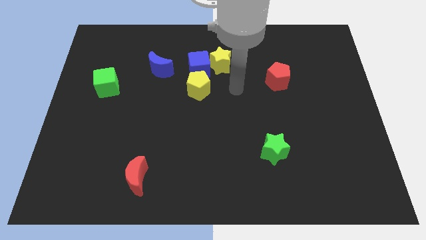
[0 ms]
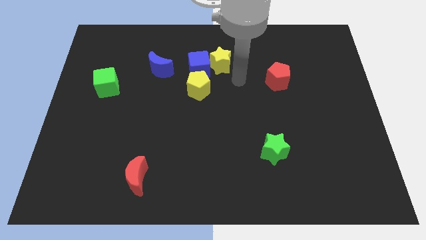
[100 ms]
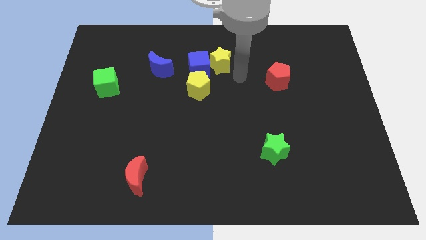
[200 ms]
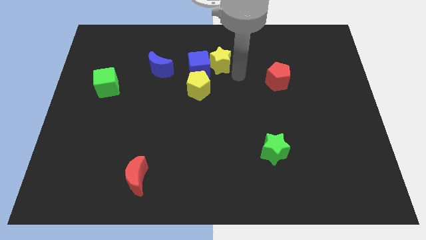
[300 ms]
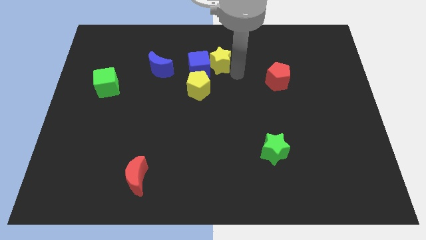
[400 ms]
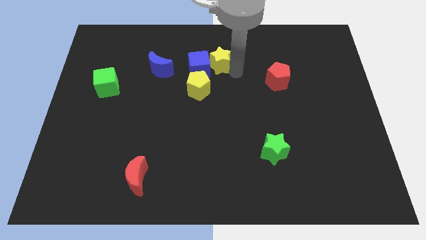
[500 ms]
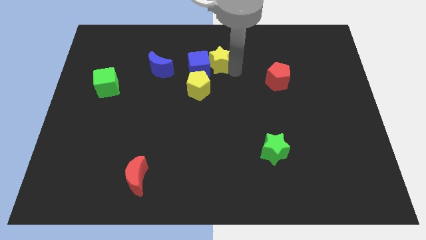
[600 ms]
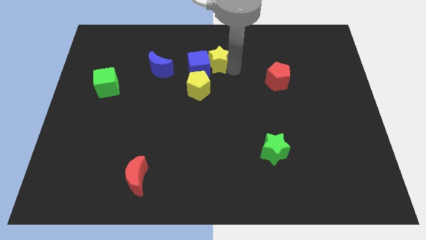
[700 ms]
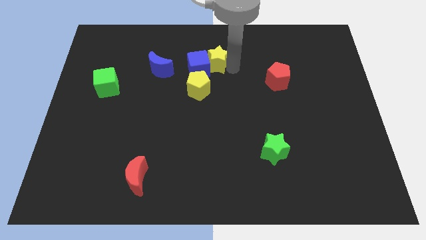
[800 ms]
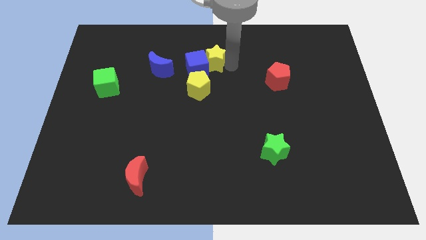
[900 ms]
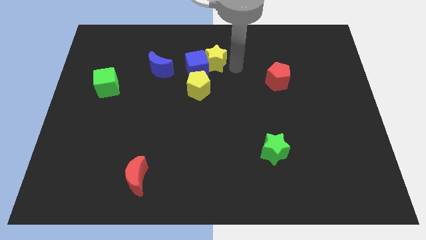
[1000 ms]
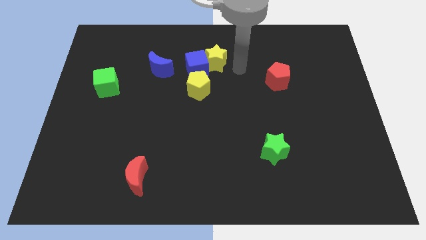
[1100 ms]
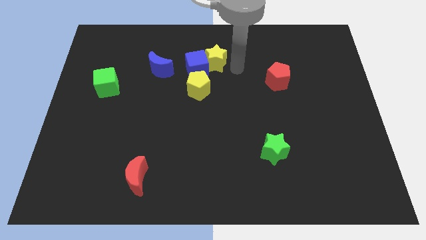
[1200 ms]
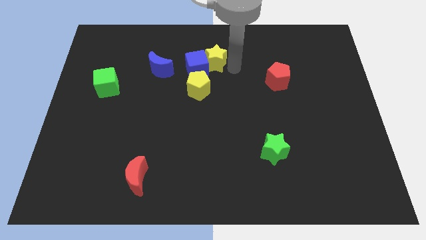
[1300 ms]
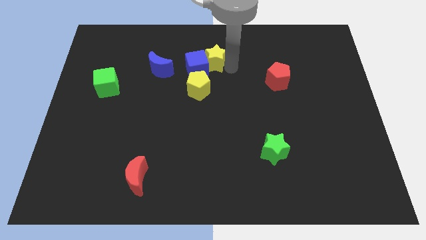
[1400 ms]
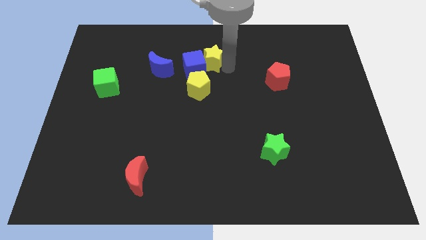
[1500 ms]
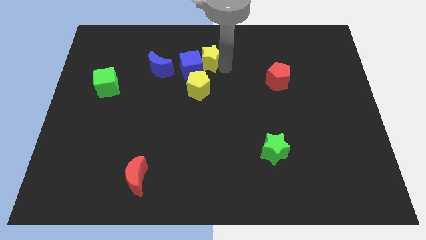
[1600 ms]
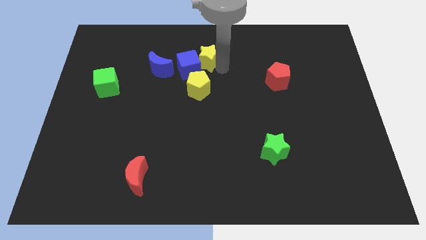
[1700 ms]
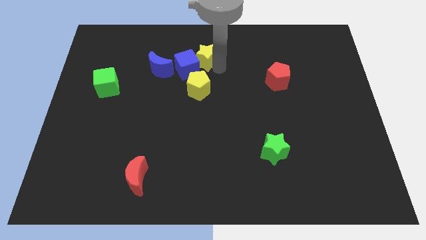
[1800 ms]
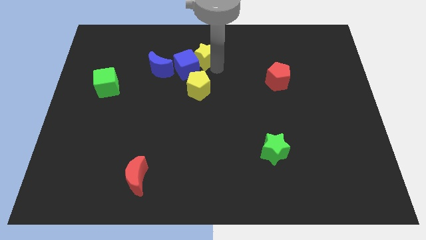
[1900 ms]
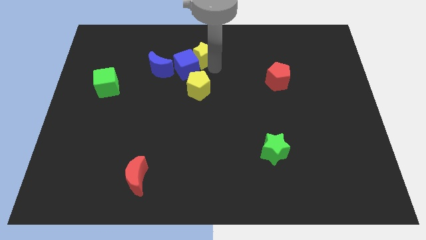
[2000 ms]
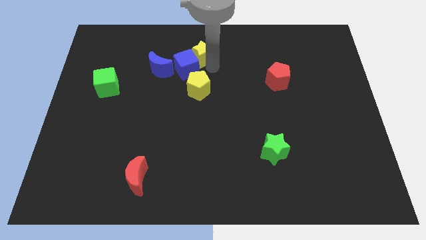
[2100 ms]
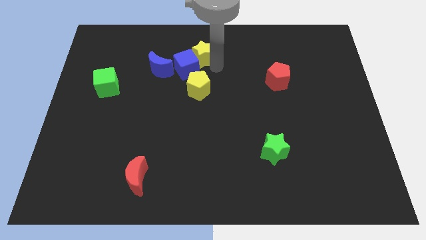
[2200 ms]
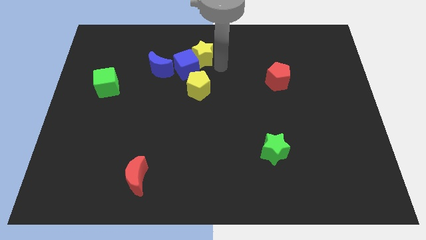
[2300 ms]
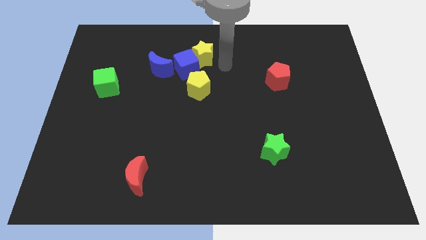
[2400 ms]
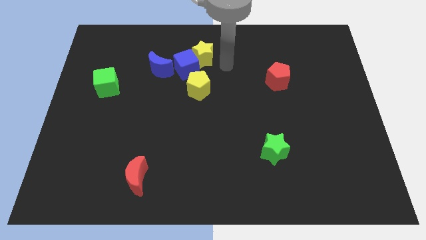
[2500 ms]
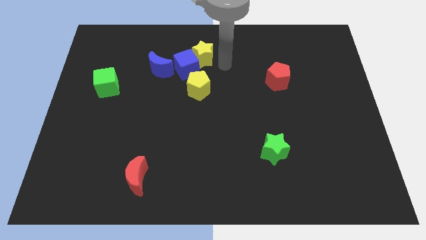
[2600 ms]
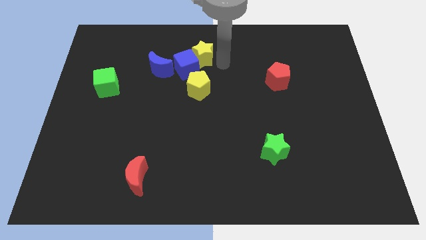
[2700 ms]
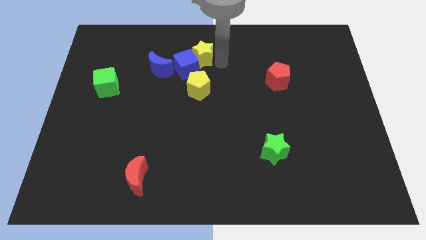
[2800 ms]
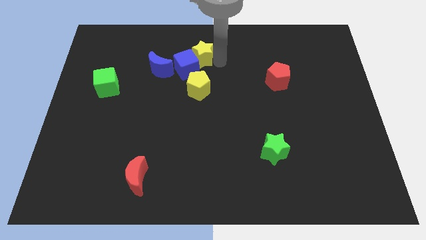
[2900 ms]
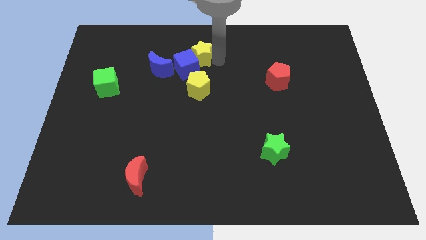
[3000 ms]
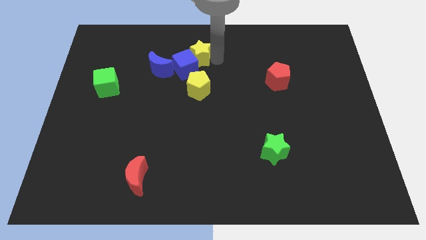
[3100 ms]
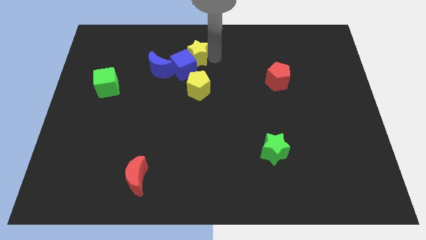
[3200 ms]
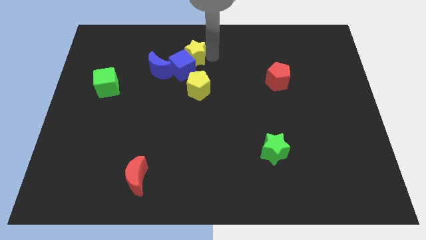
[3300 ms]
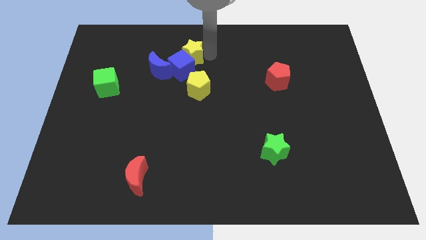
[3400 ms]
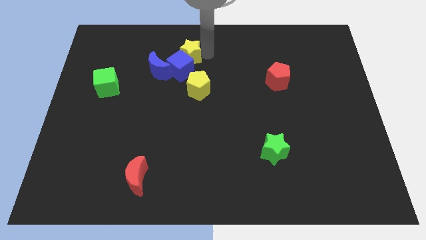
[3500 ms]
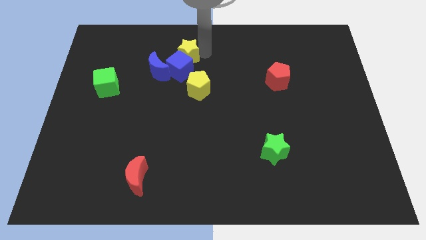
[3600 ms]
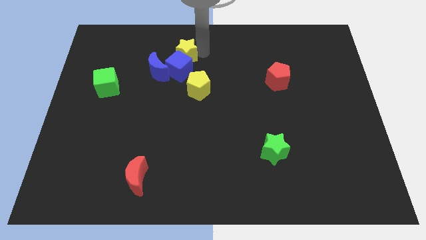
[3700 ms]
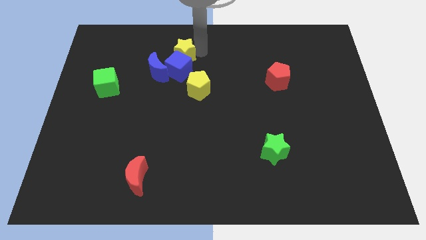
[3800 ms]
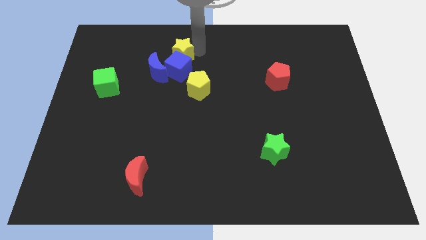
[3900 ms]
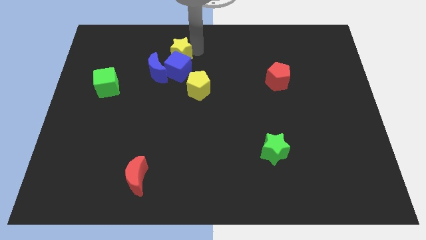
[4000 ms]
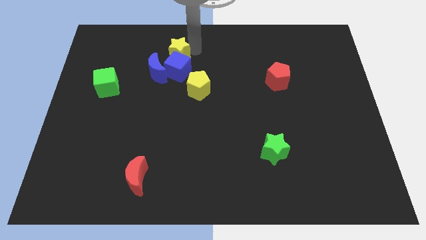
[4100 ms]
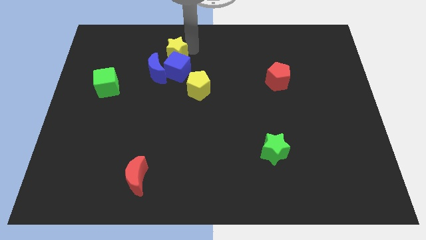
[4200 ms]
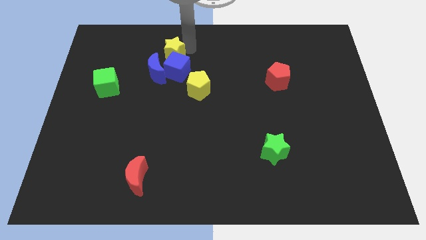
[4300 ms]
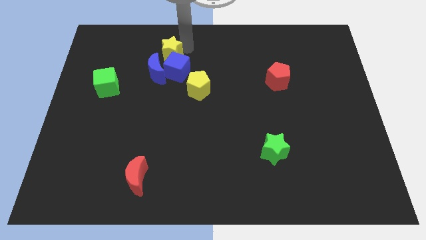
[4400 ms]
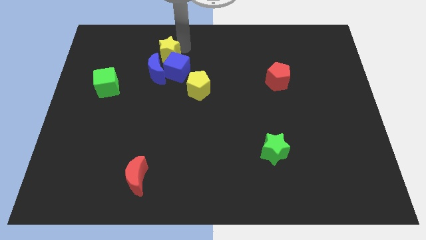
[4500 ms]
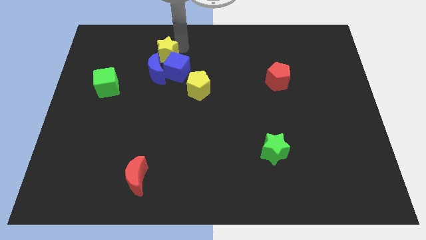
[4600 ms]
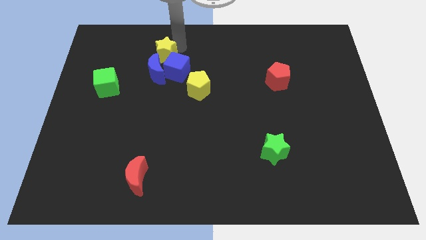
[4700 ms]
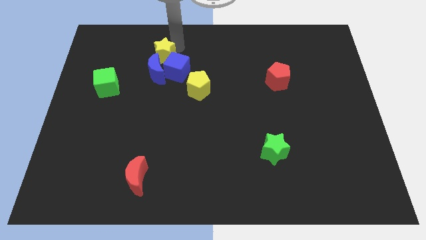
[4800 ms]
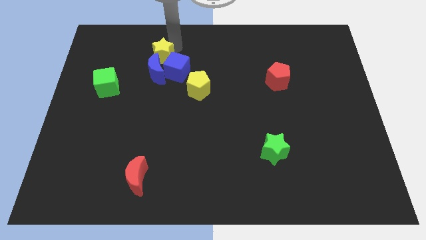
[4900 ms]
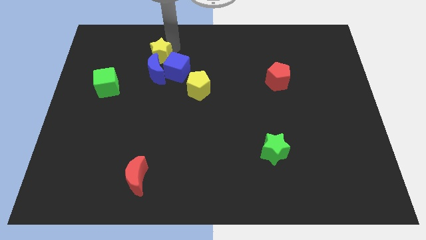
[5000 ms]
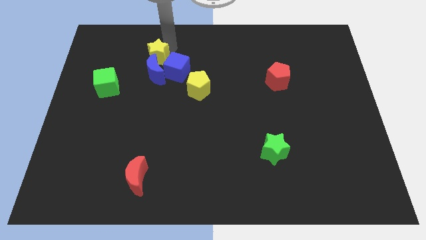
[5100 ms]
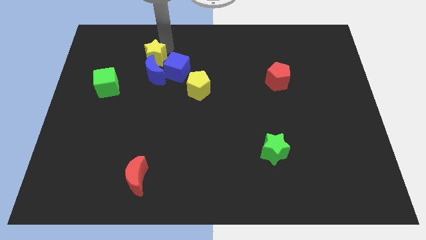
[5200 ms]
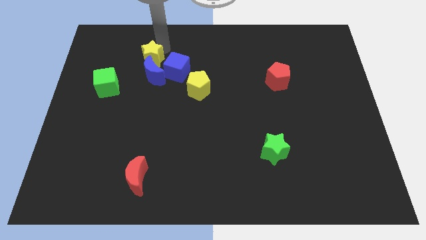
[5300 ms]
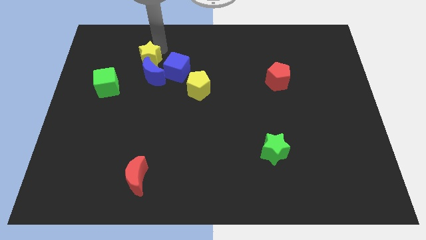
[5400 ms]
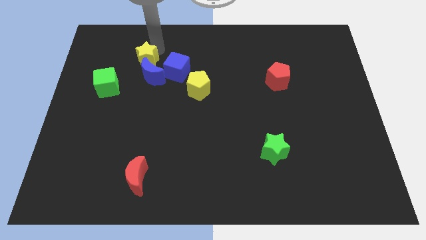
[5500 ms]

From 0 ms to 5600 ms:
move the yellow star diagonally up and to the right of the green cube
